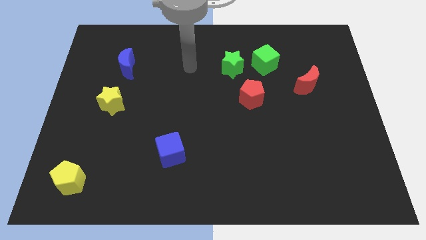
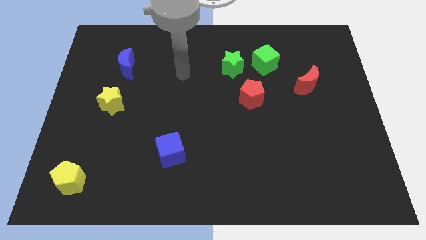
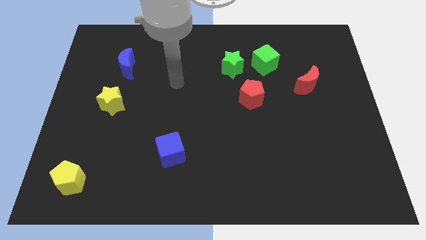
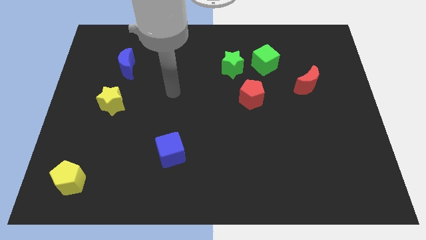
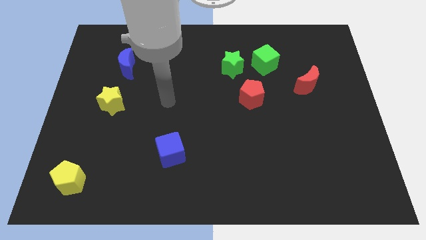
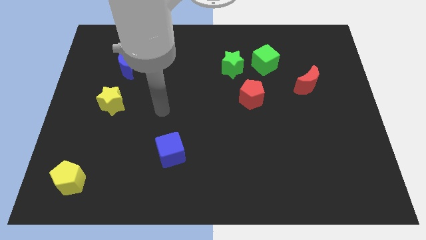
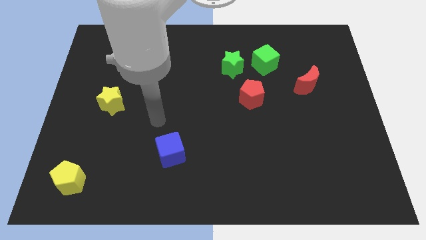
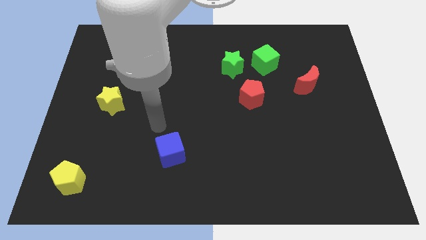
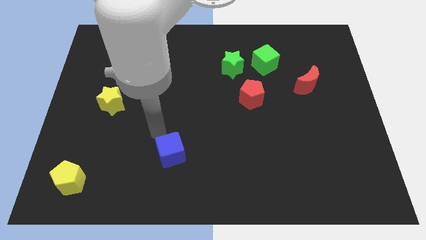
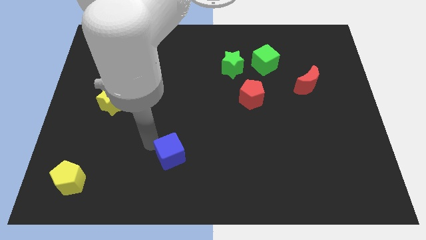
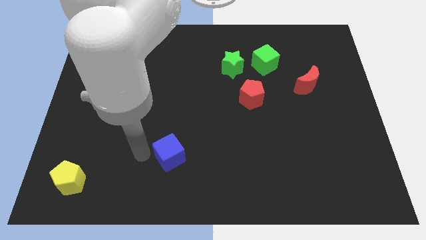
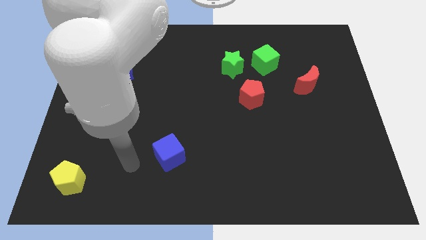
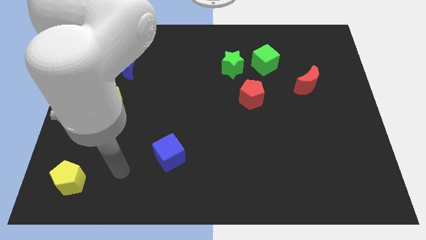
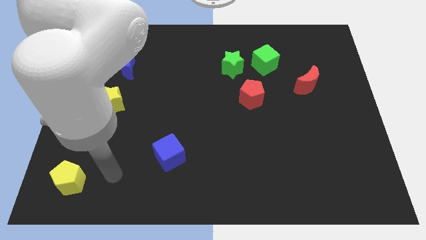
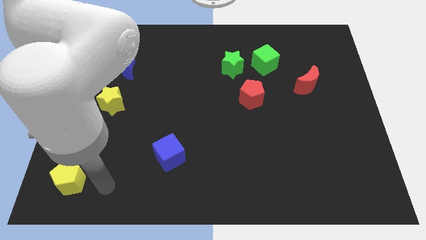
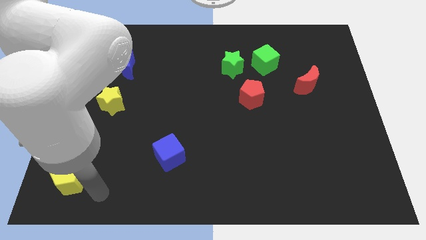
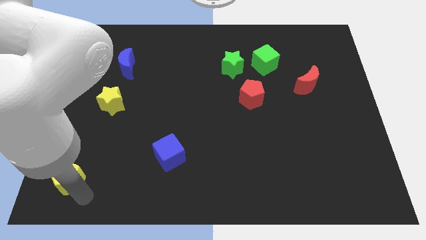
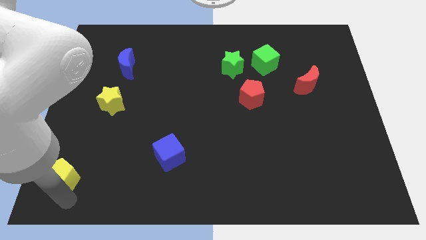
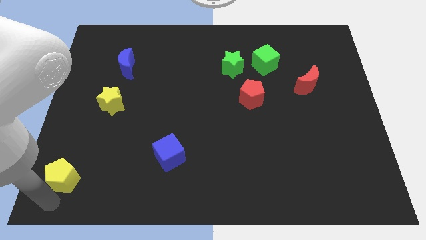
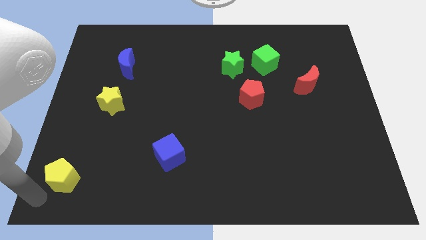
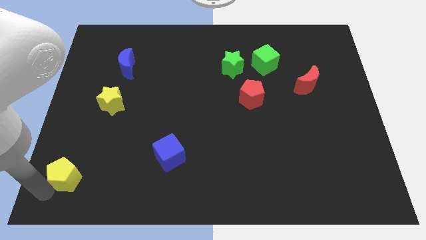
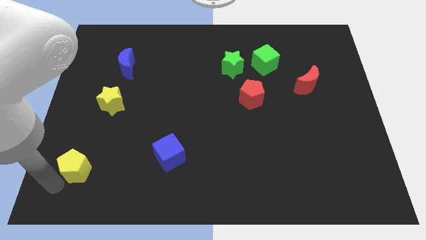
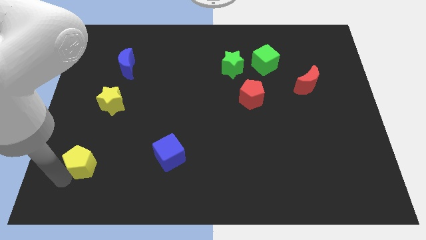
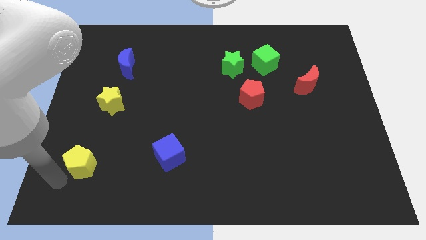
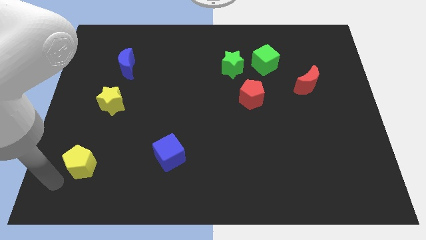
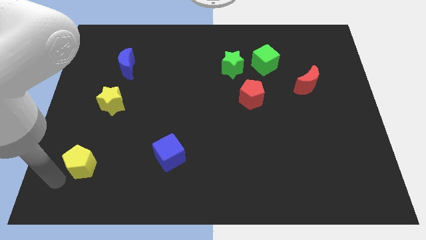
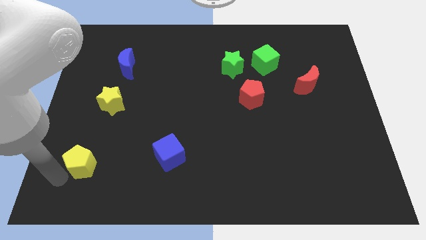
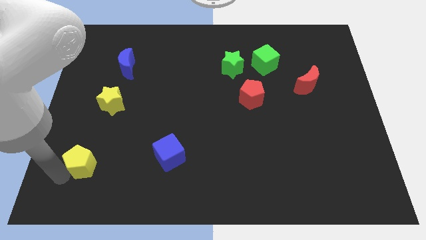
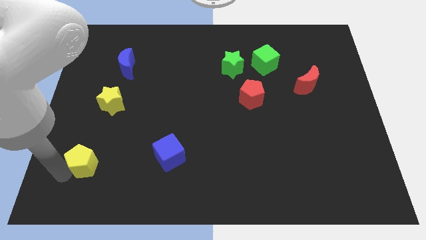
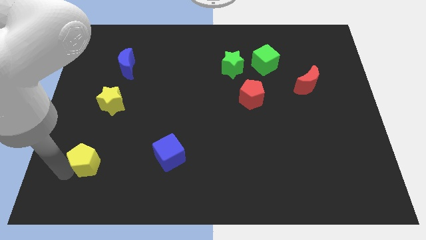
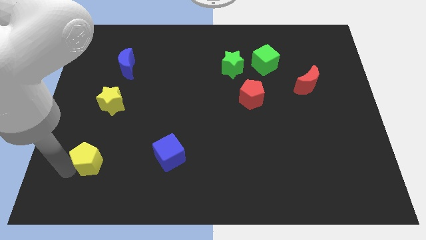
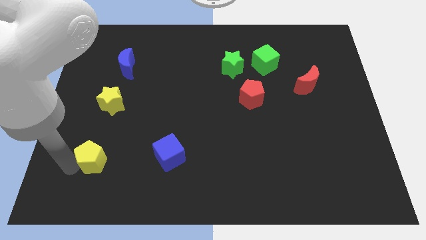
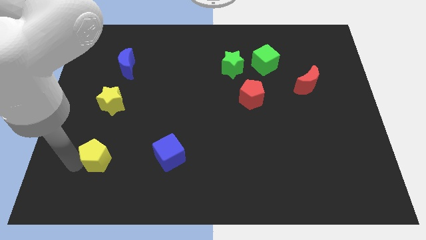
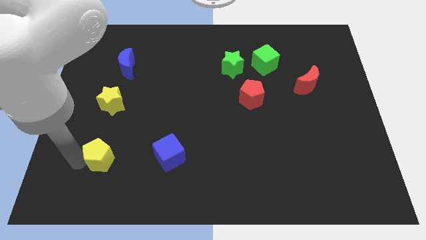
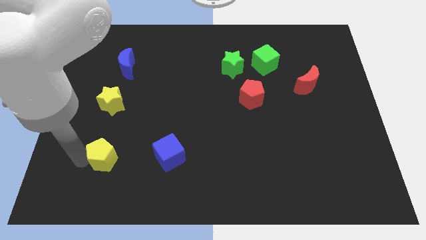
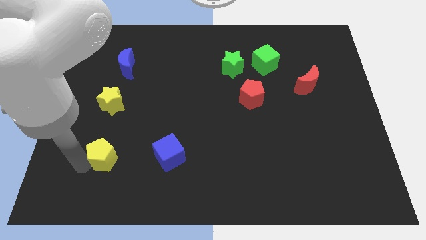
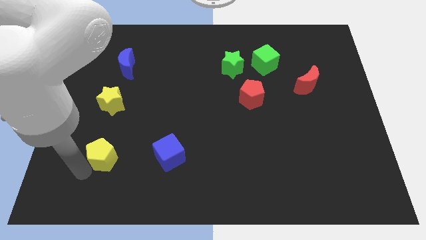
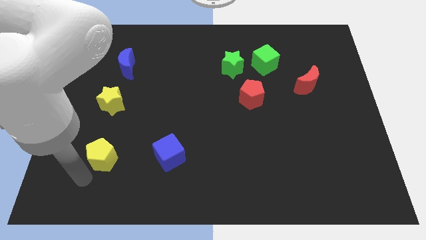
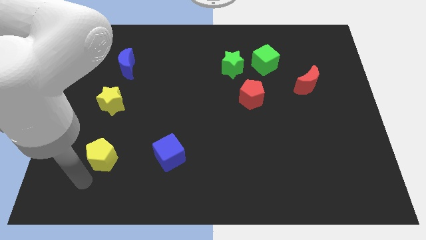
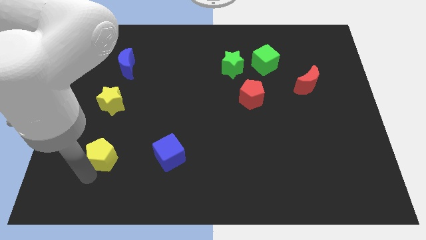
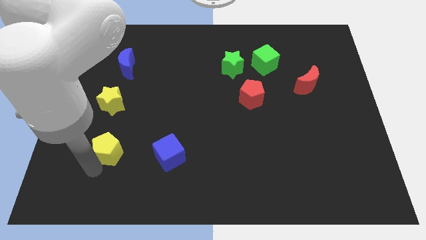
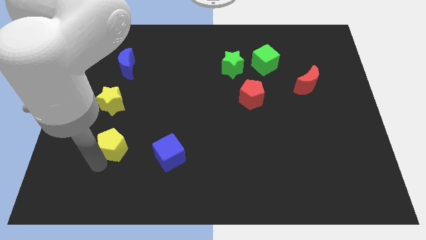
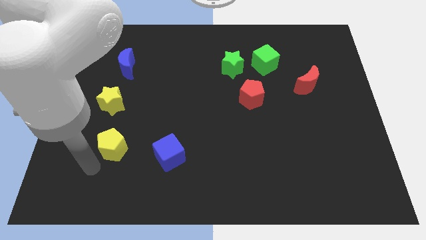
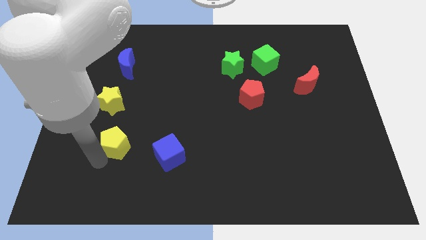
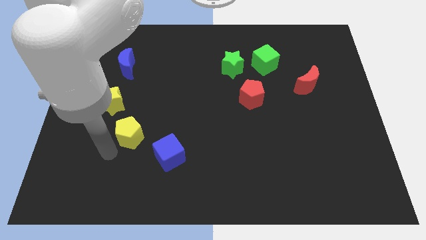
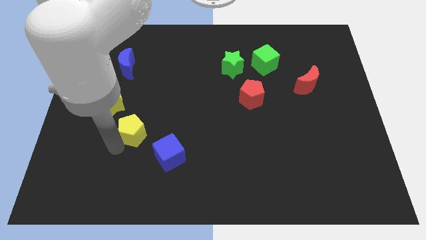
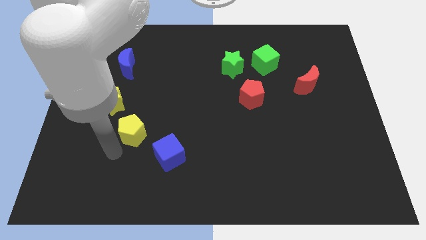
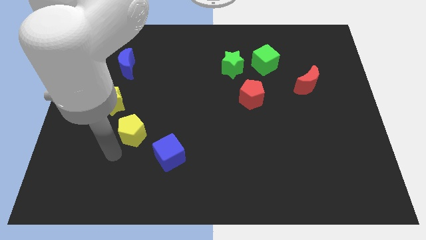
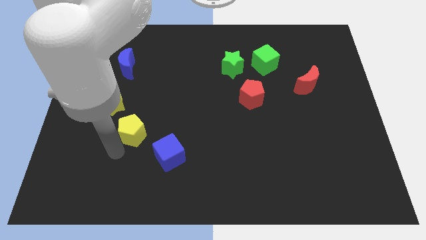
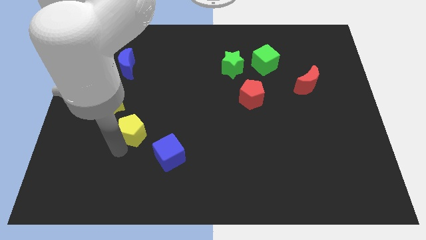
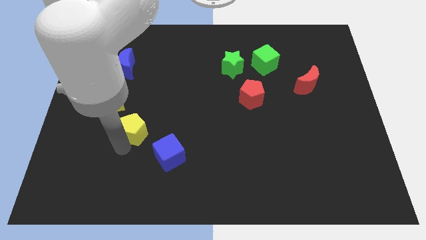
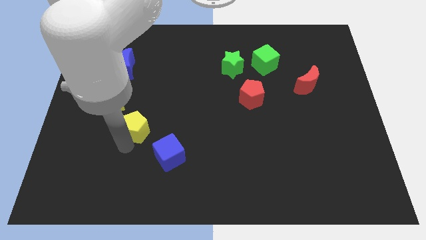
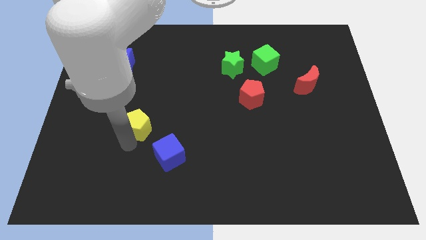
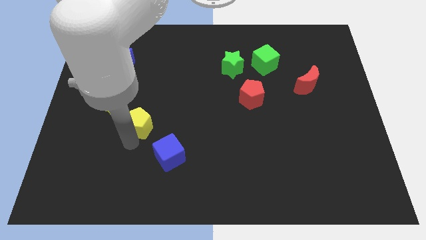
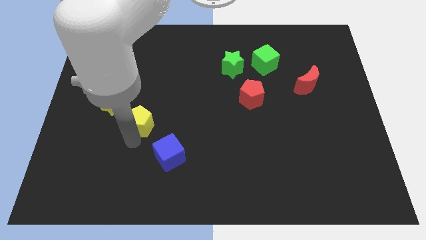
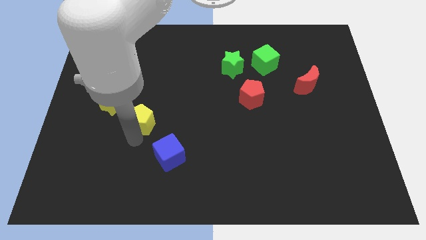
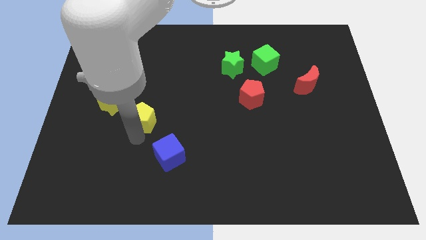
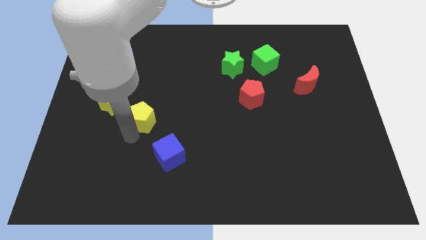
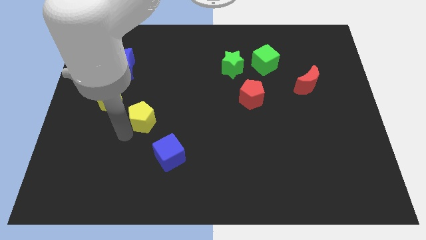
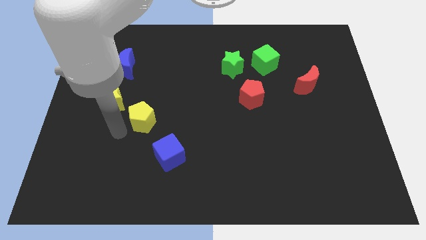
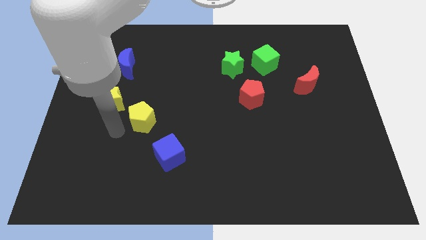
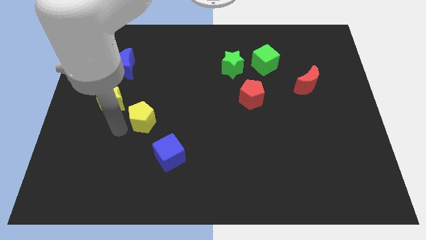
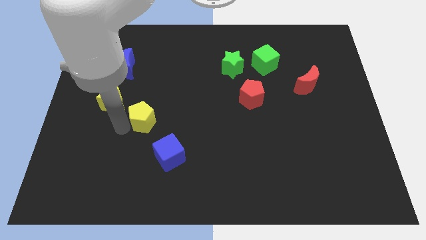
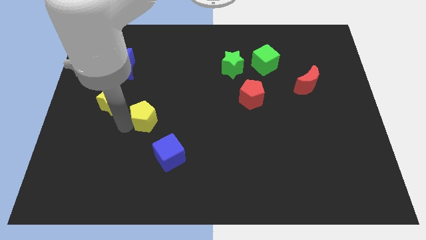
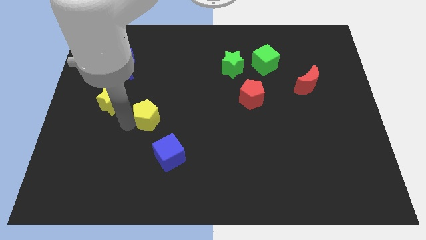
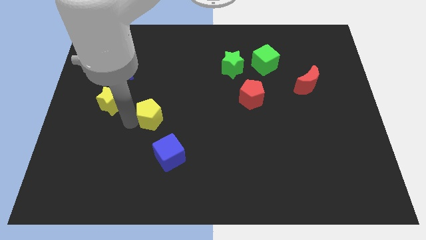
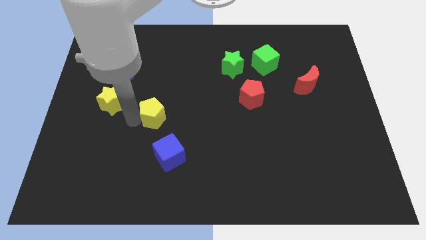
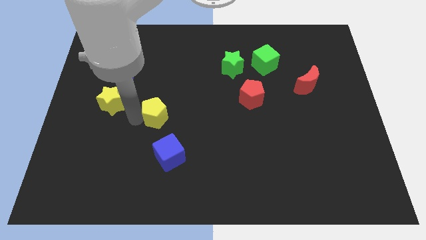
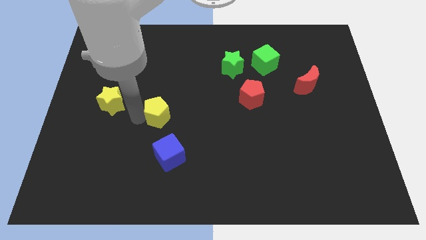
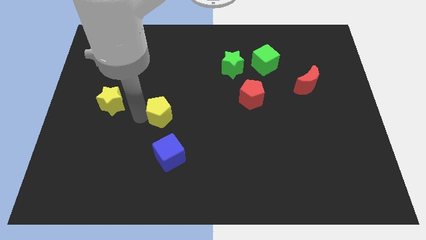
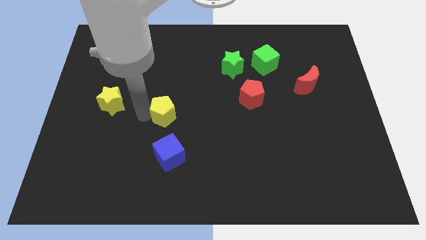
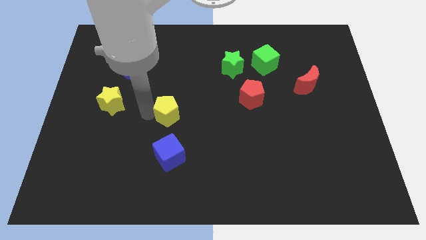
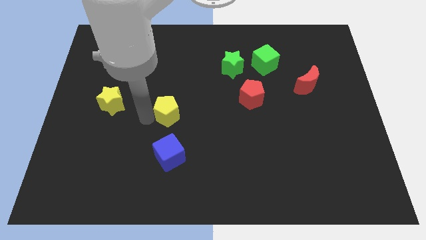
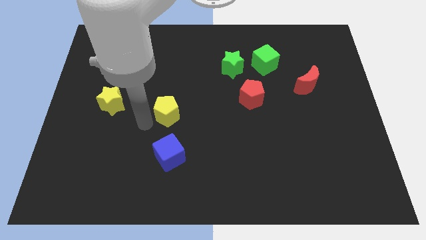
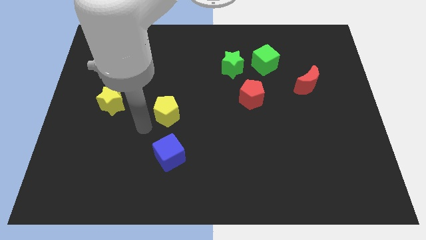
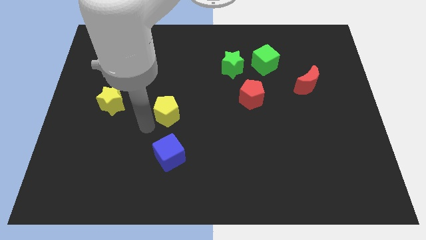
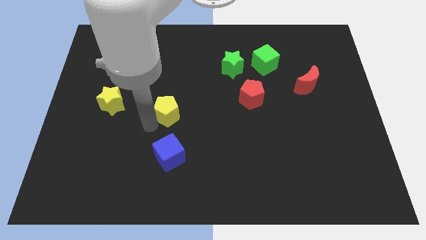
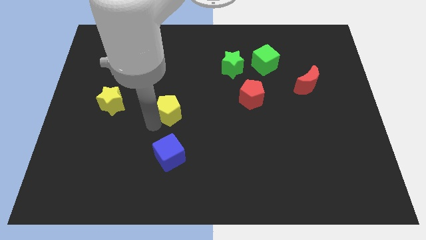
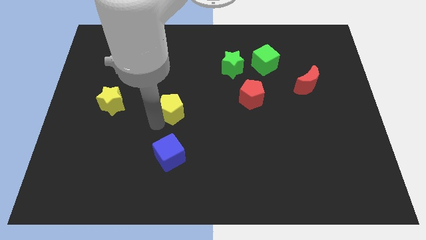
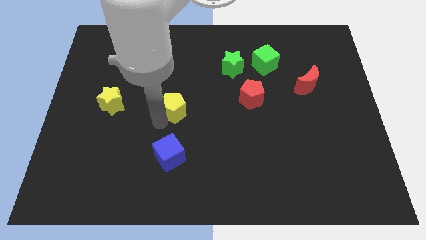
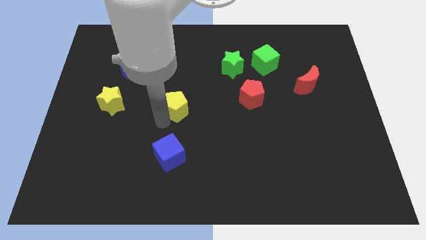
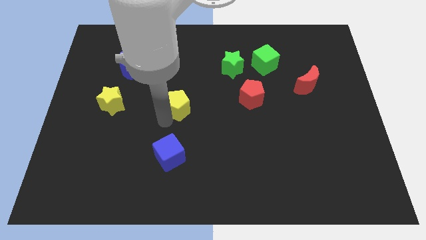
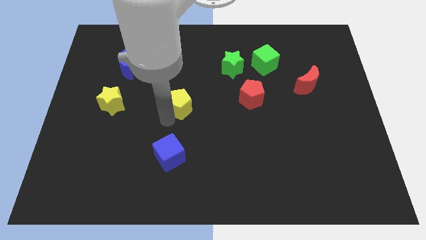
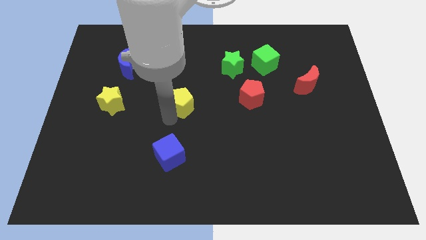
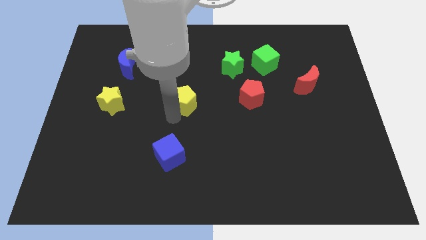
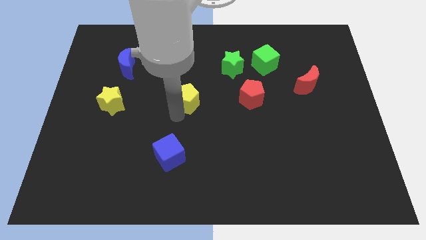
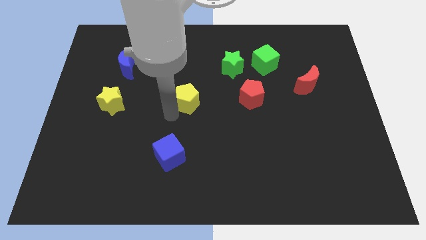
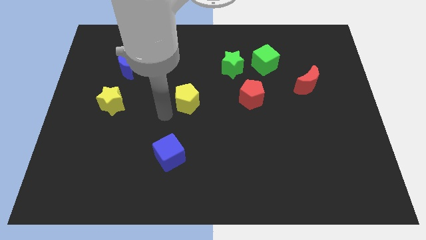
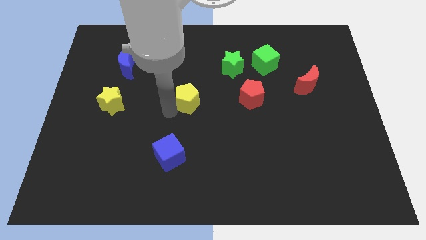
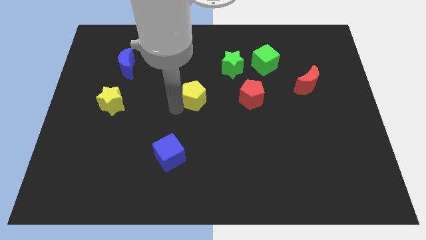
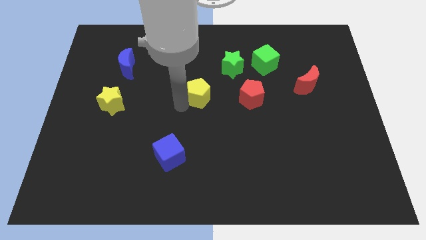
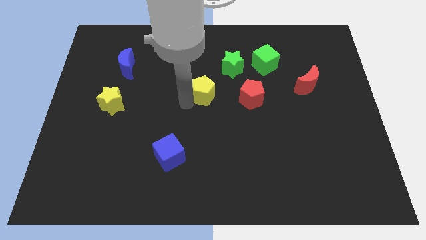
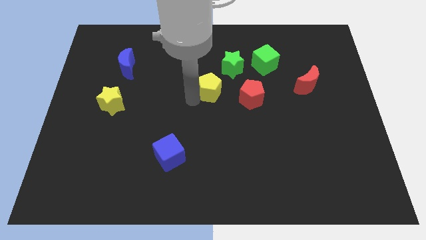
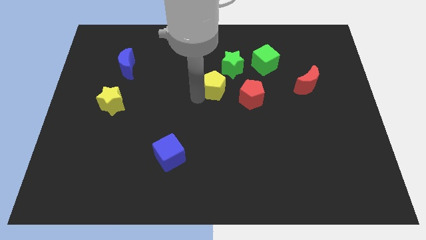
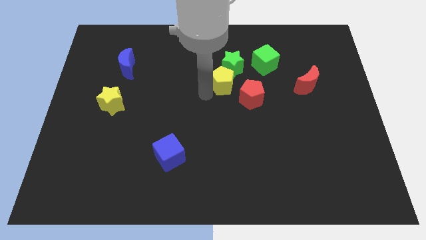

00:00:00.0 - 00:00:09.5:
put the yellow pentagon next to the green star
